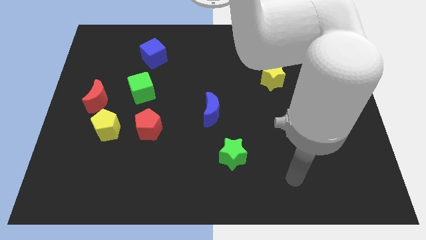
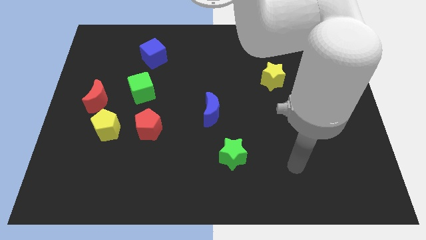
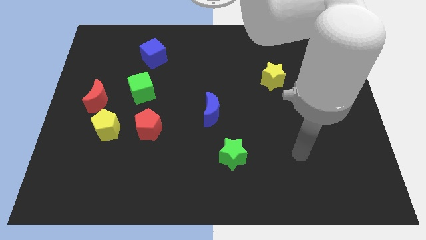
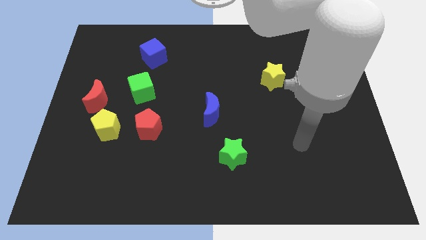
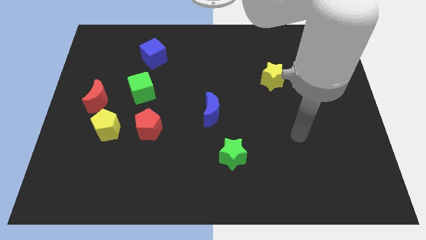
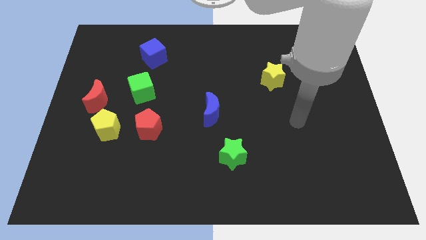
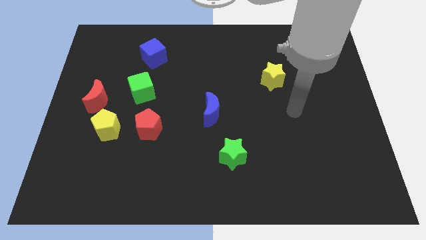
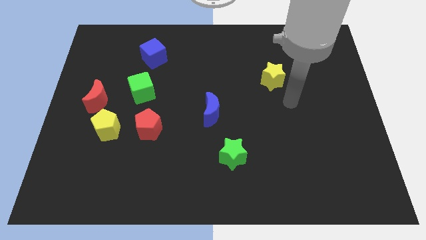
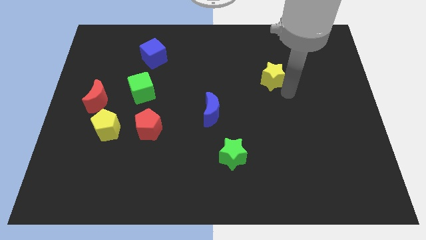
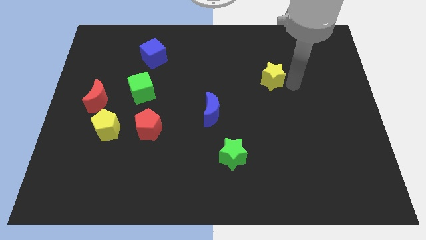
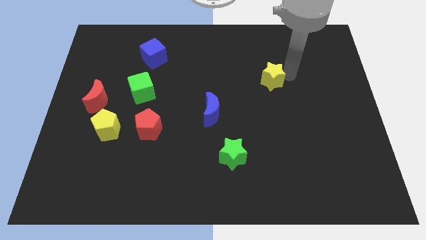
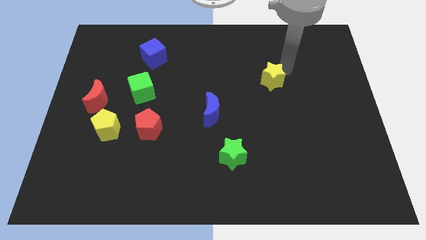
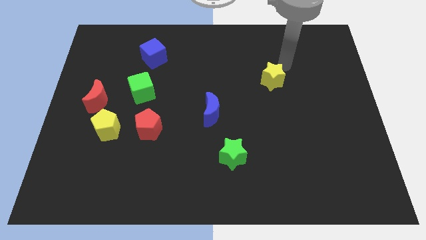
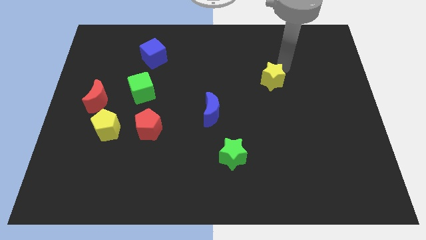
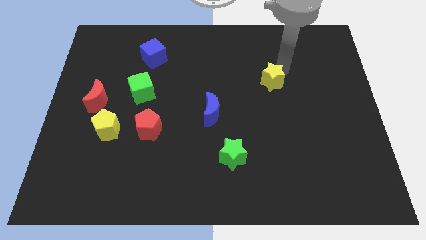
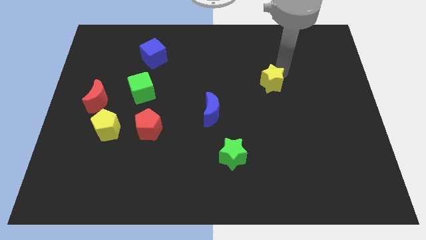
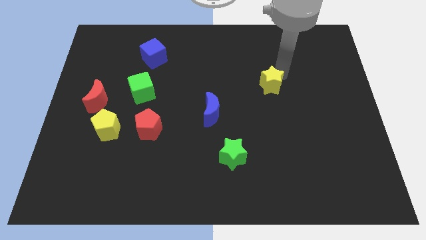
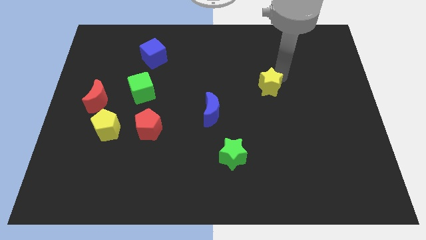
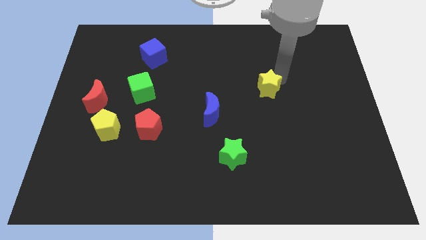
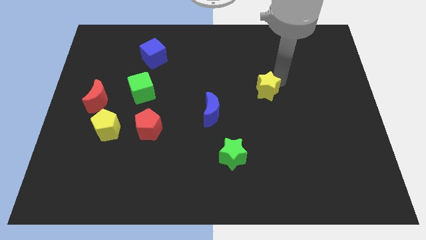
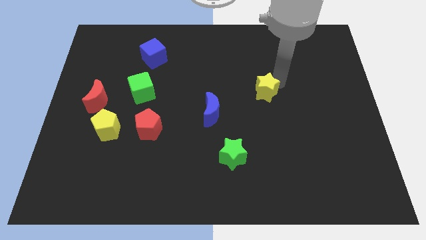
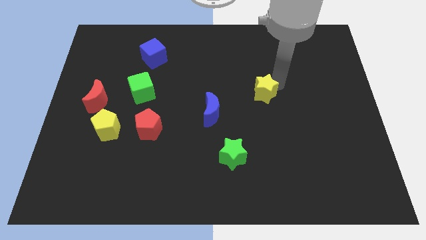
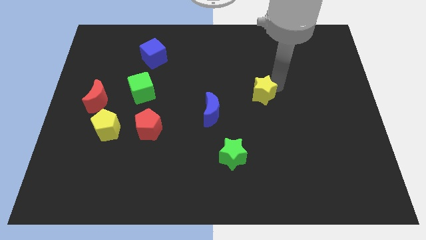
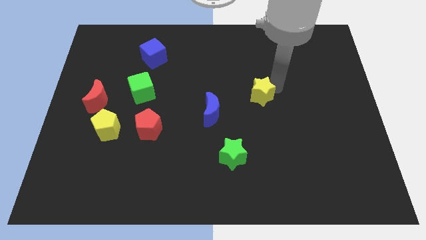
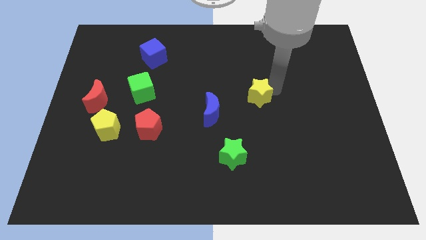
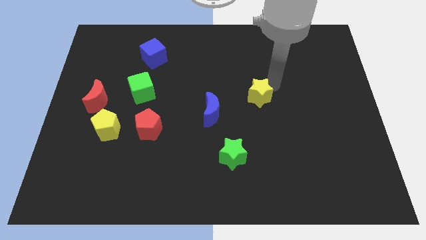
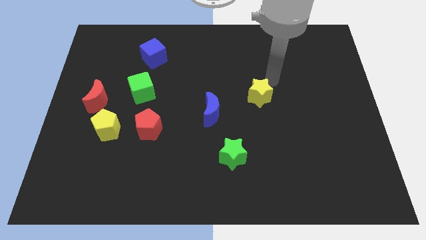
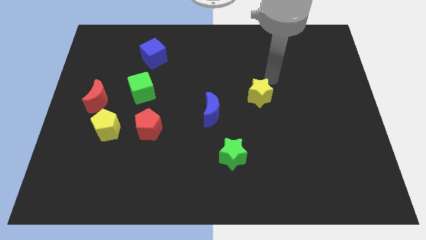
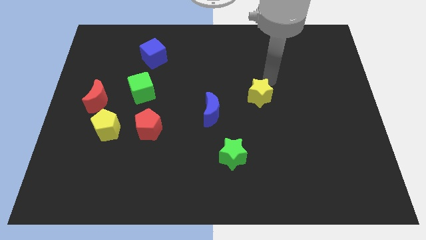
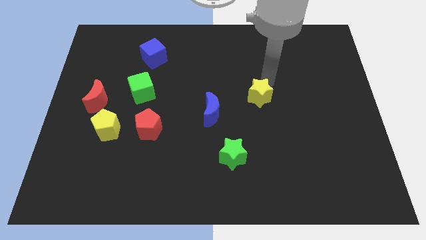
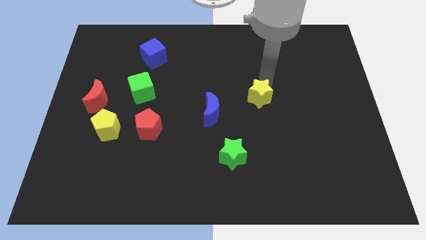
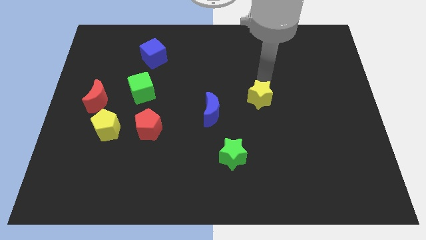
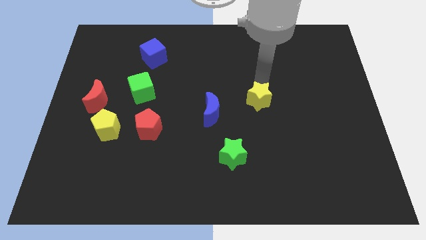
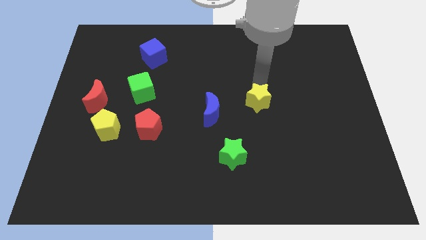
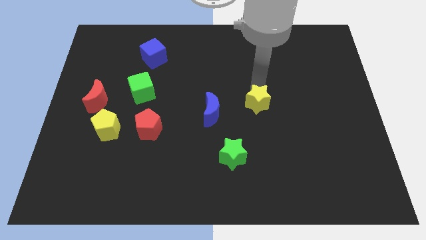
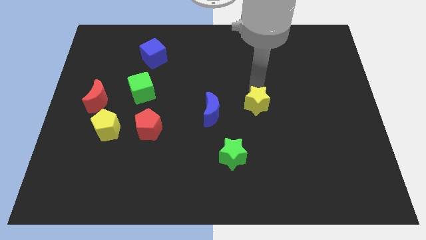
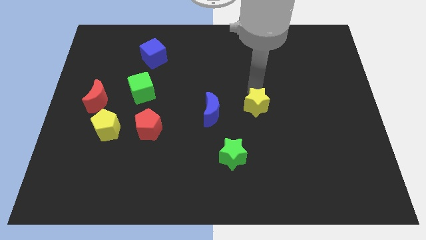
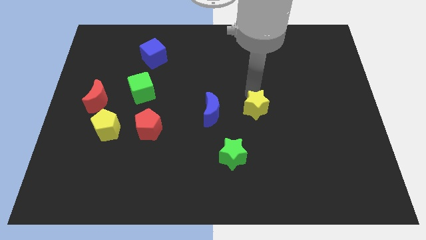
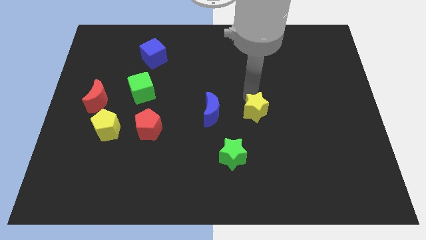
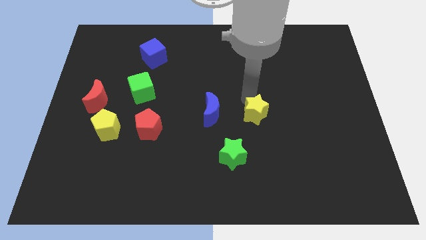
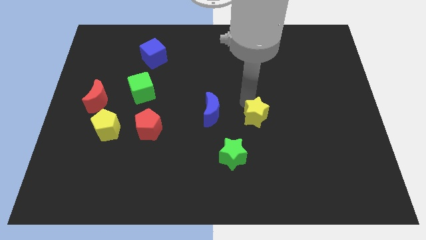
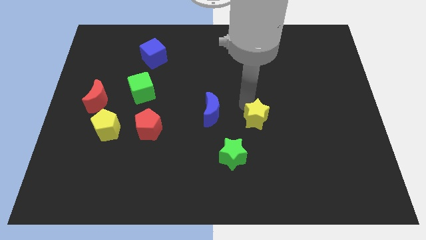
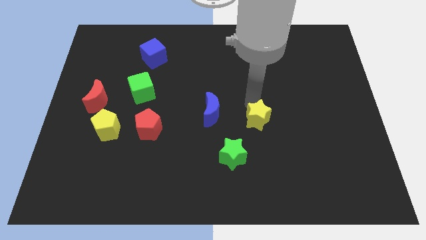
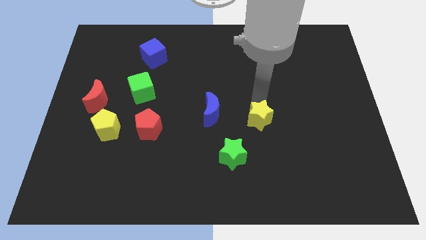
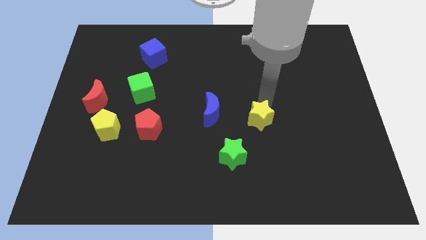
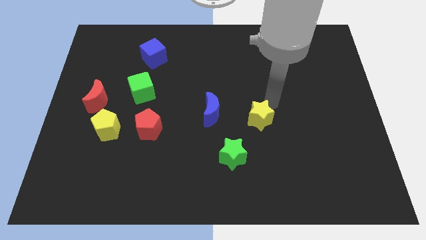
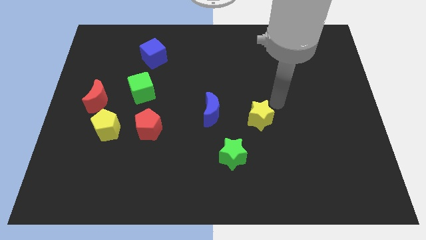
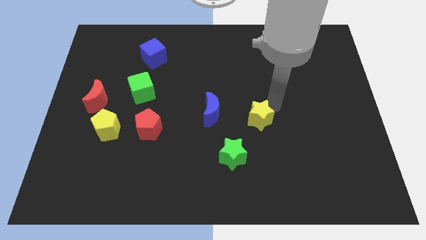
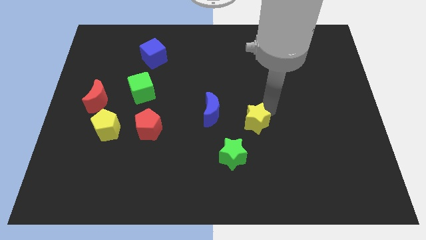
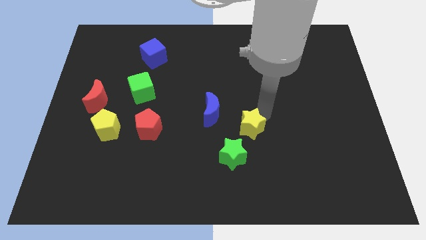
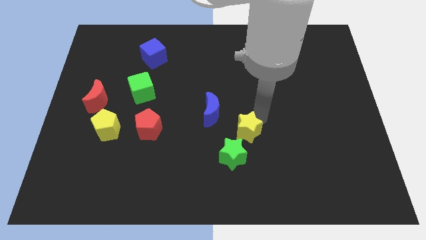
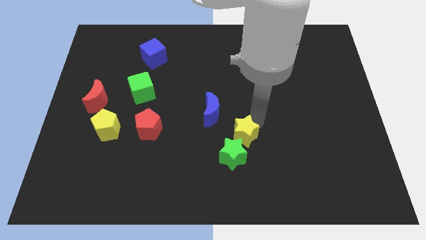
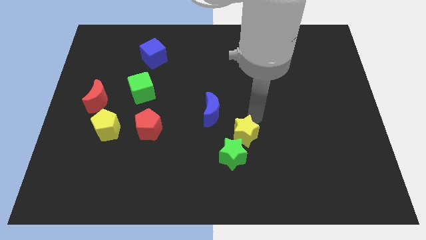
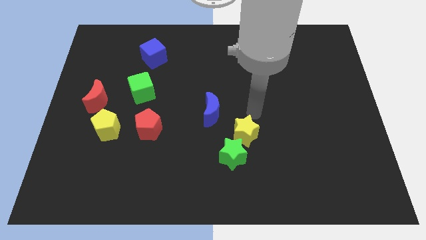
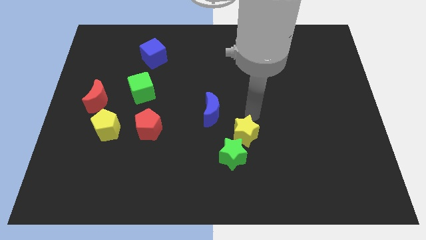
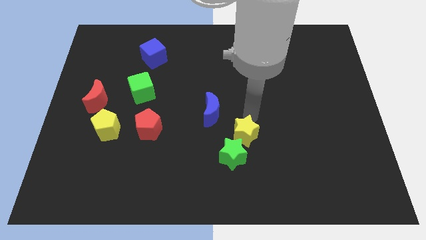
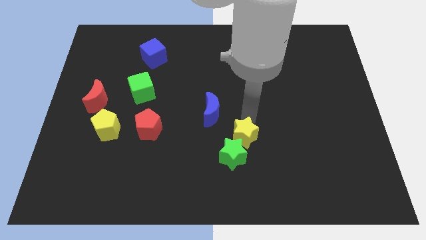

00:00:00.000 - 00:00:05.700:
move the yellow star to the green star

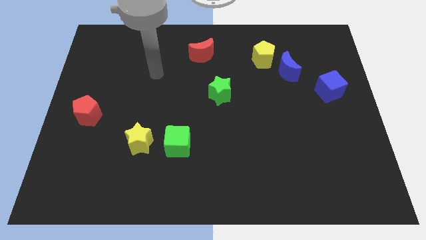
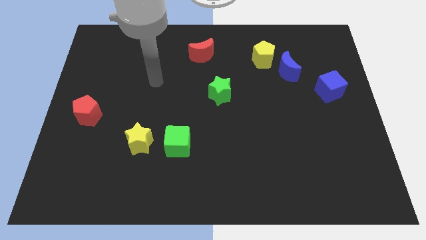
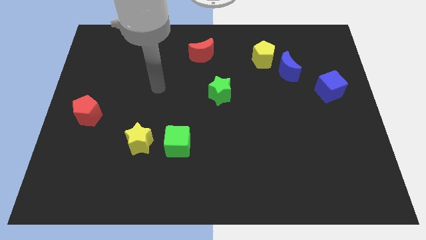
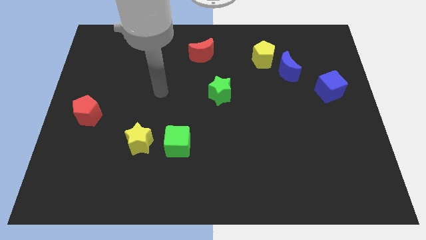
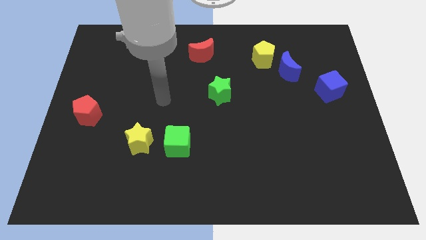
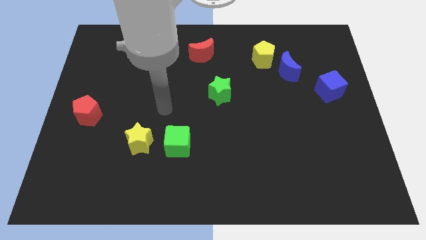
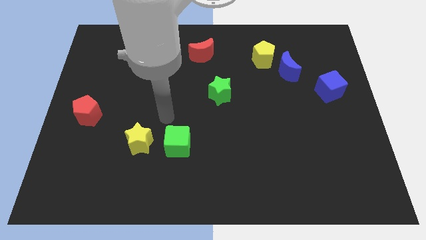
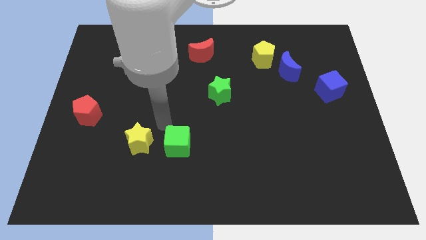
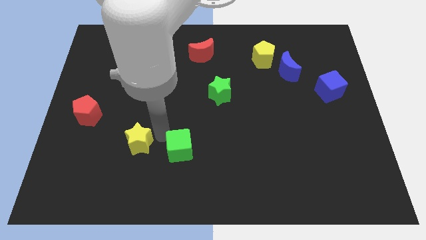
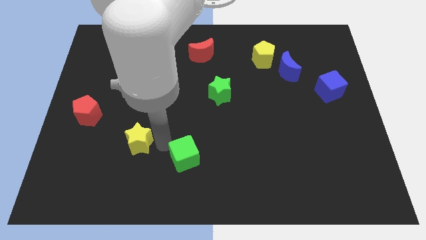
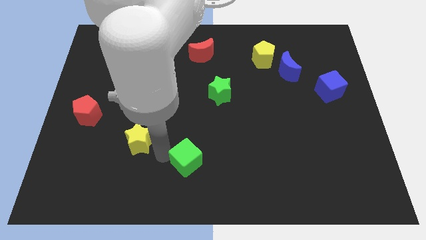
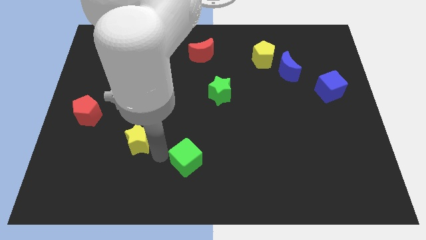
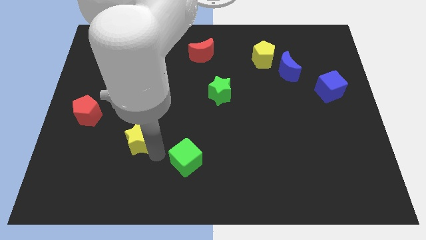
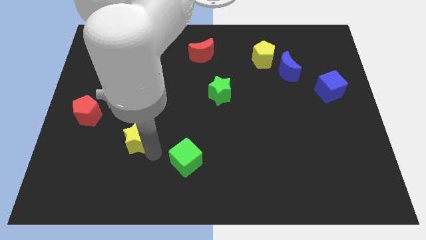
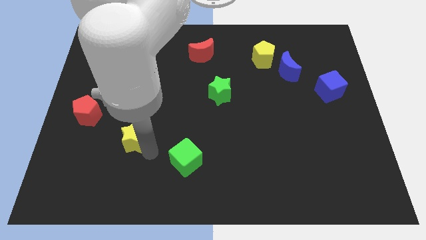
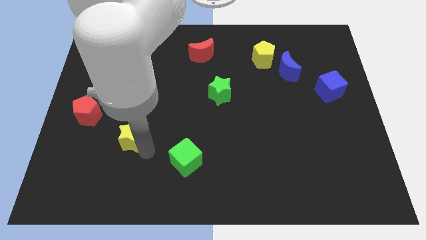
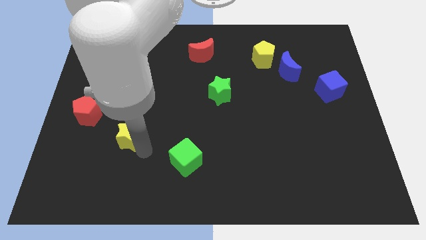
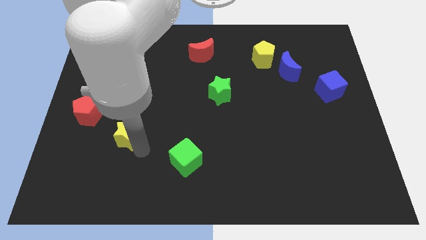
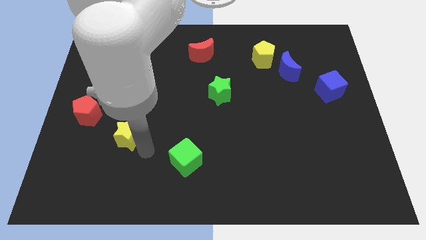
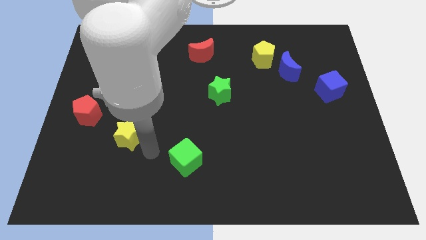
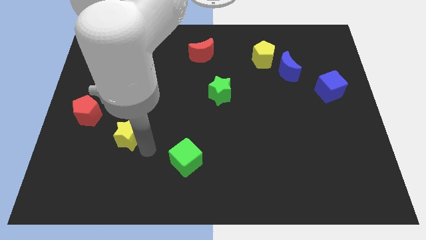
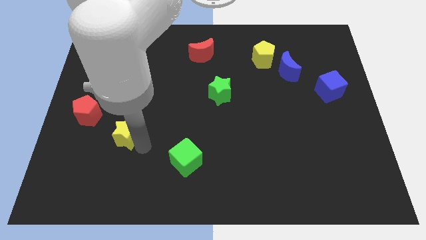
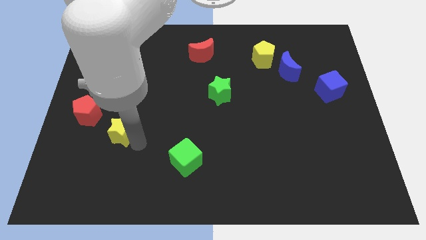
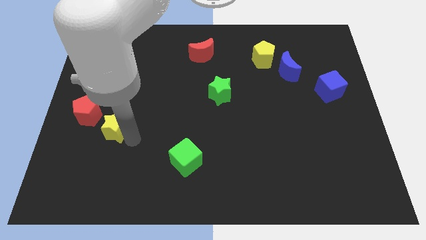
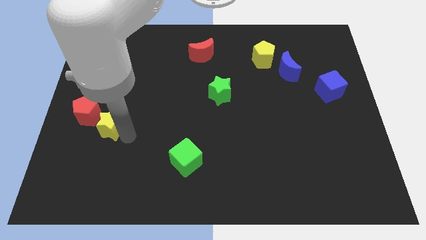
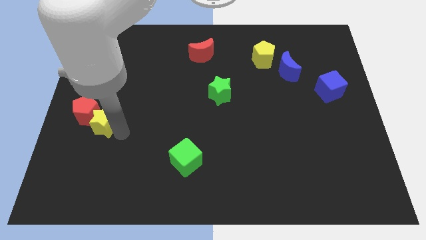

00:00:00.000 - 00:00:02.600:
push the yellow star to the red pentagon
